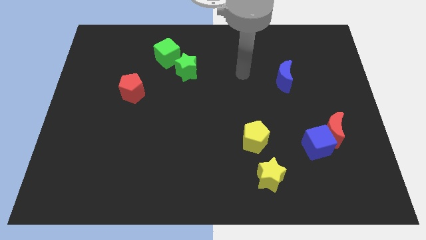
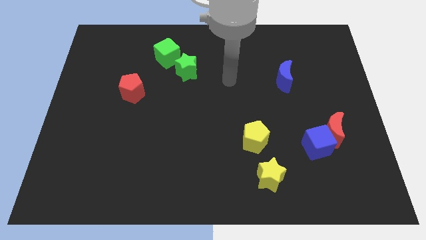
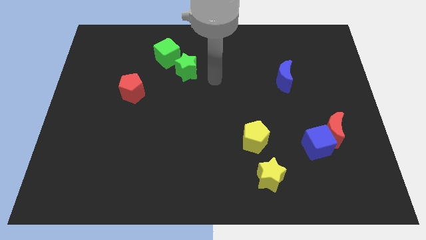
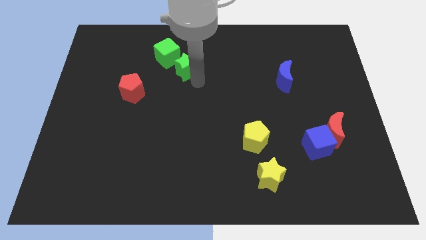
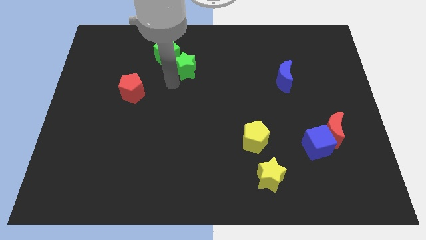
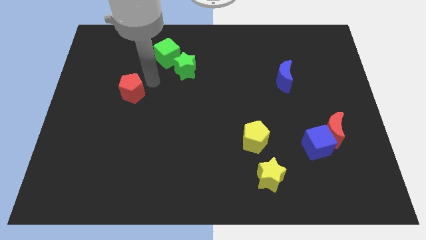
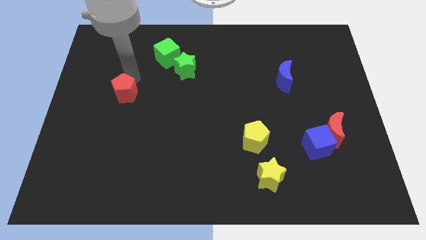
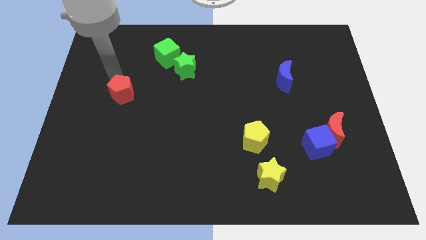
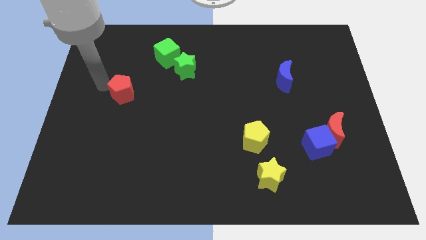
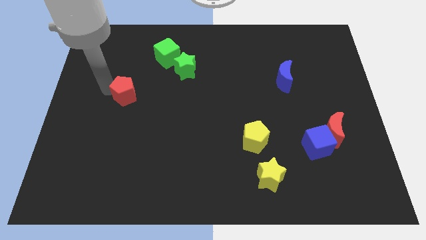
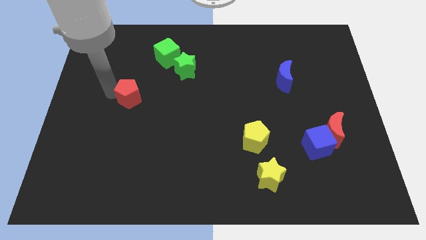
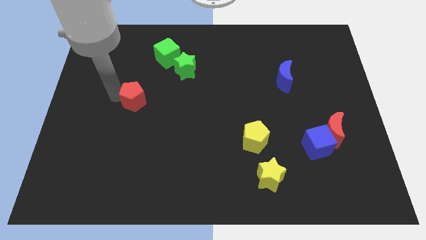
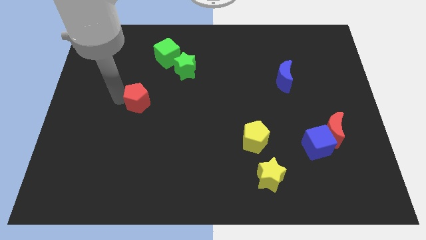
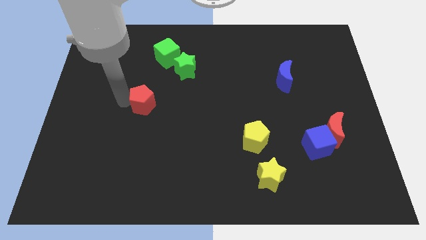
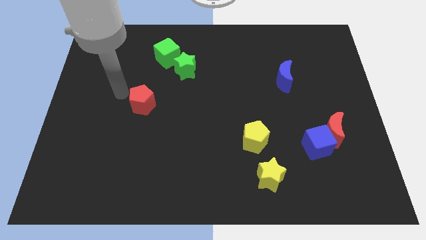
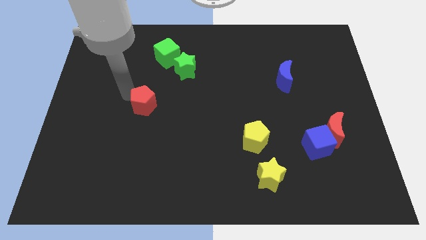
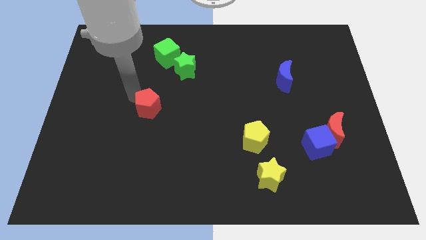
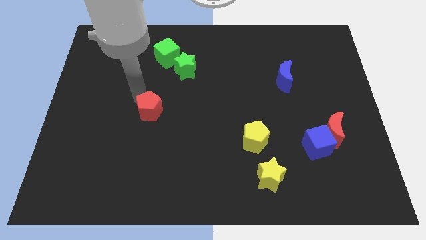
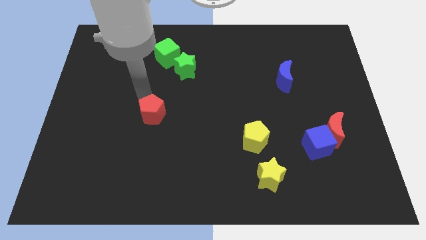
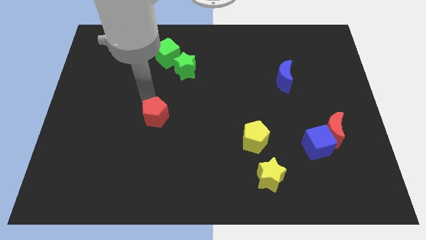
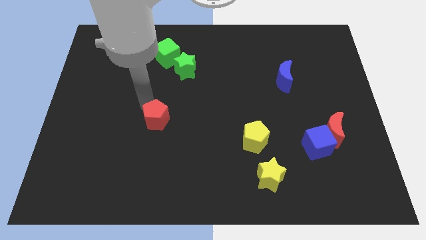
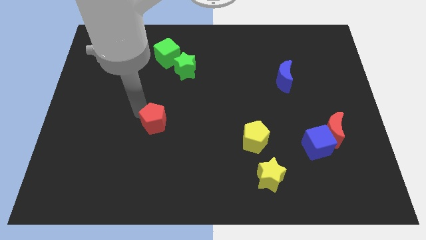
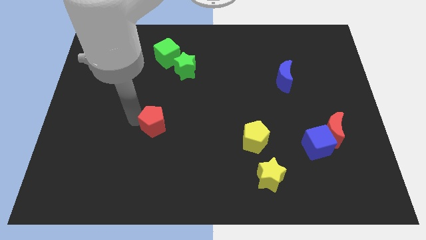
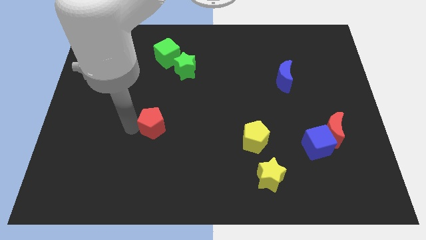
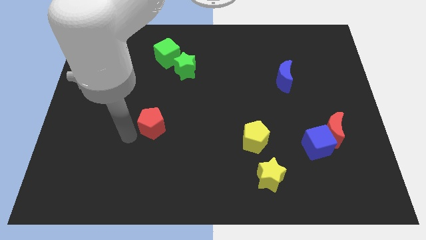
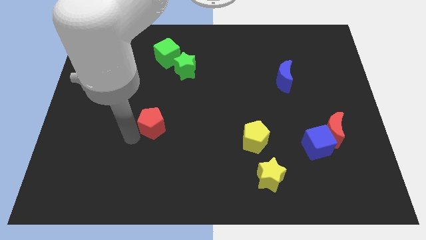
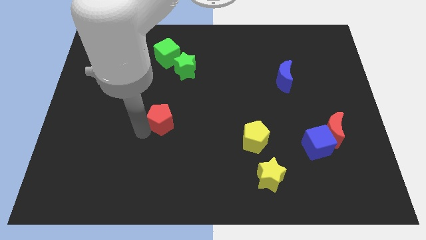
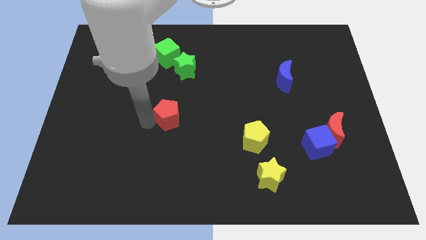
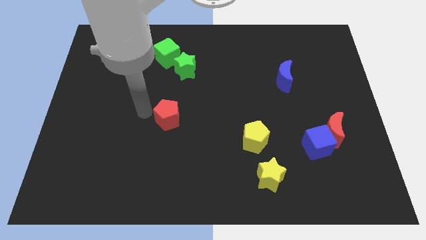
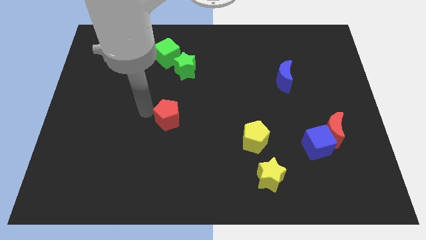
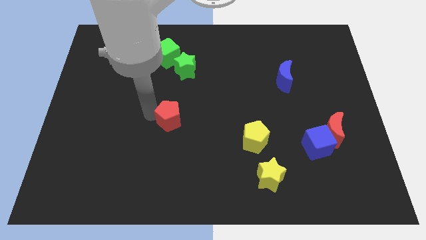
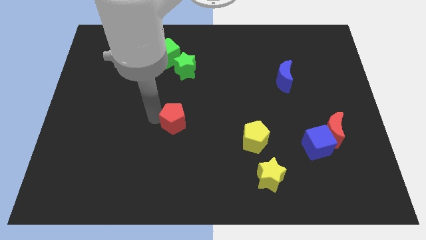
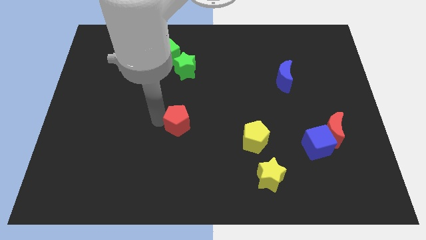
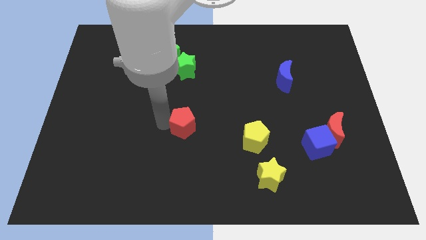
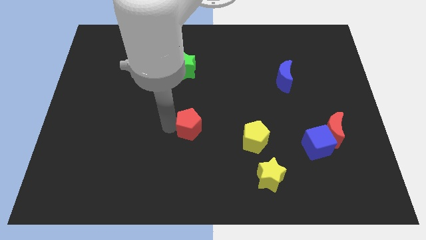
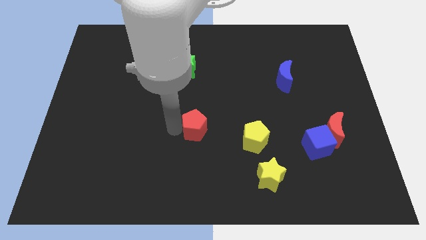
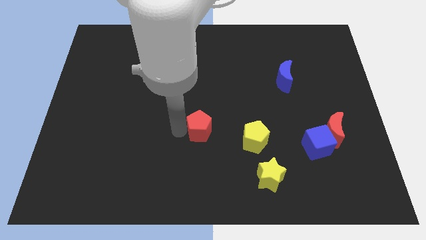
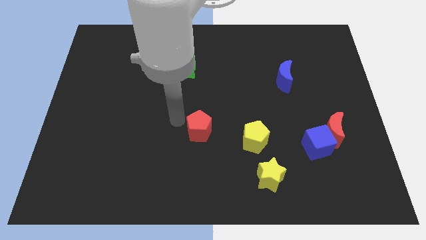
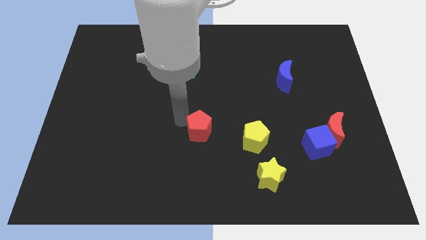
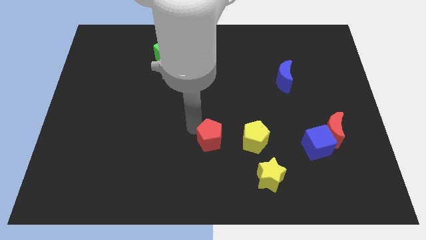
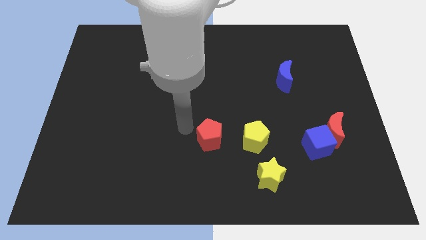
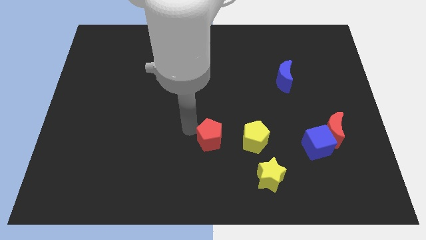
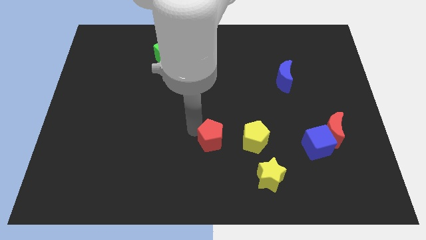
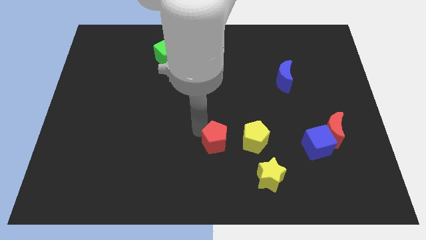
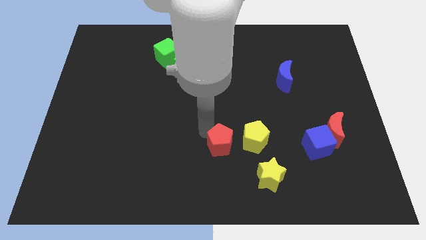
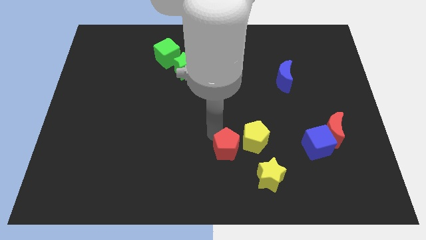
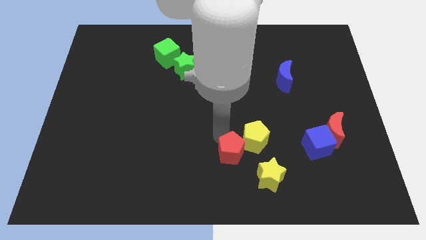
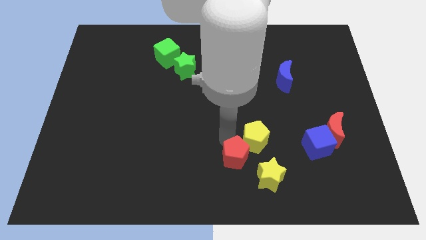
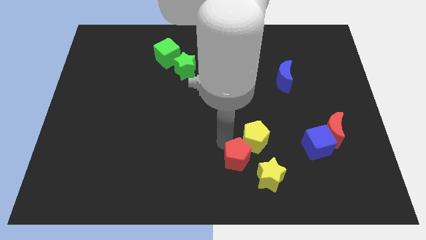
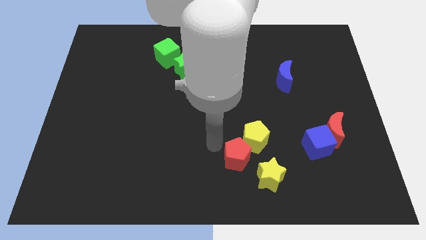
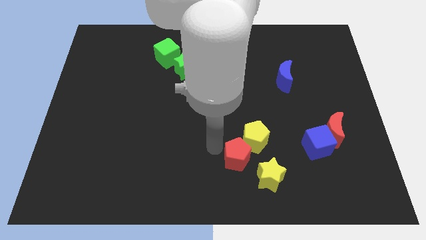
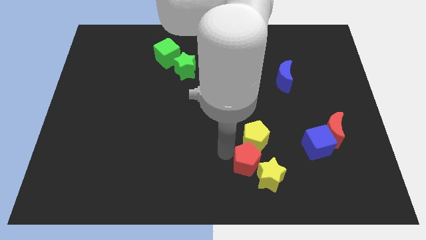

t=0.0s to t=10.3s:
push the red pentagon next to the yellow star

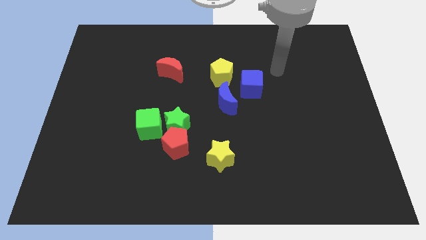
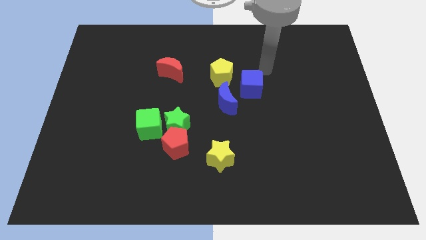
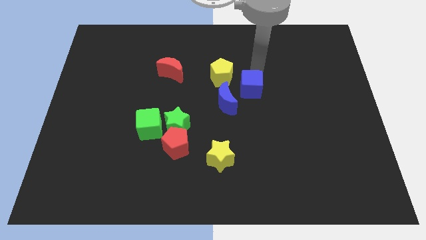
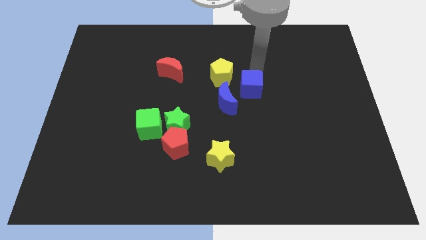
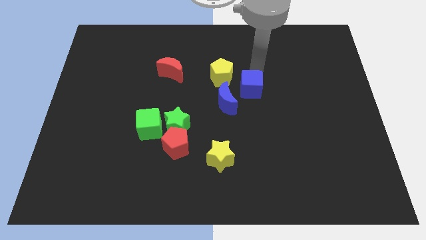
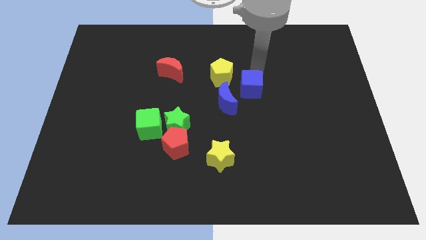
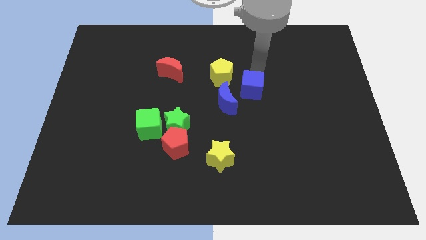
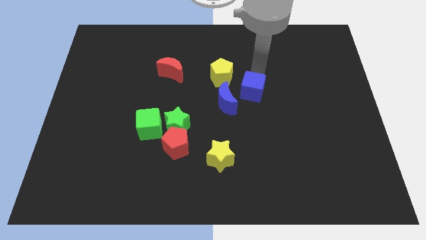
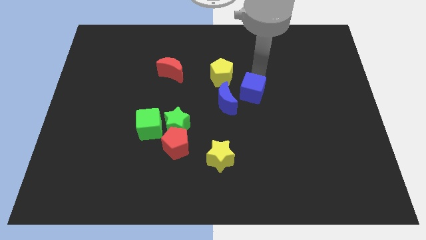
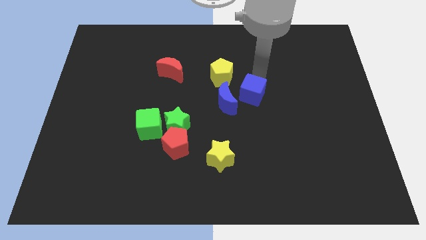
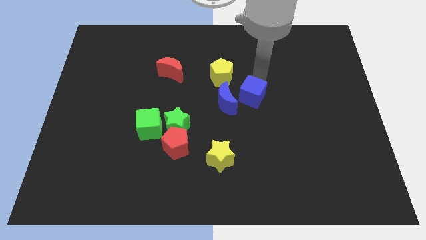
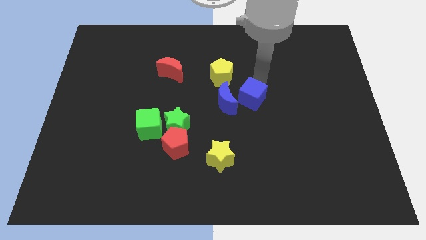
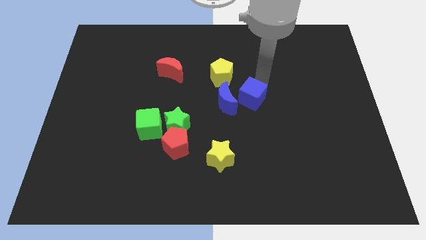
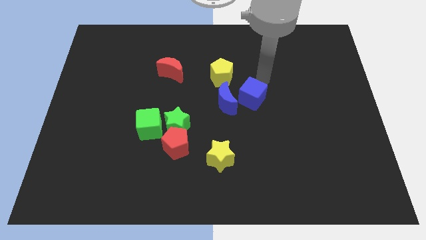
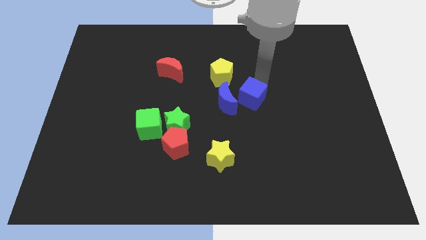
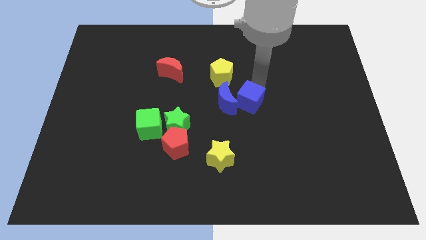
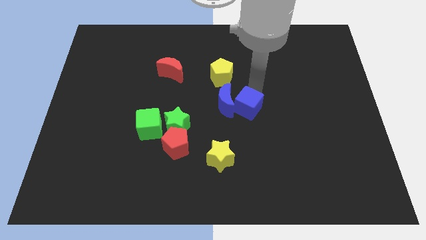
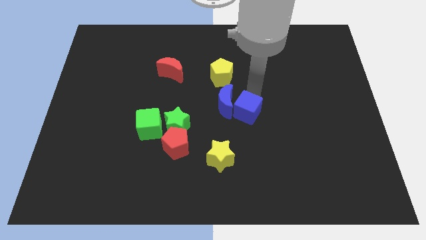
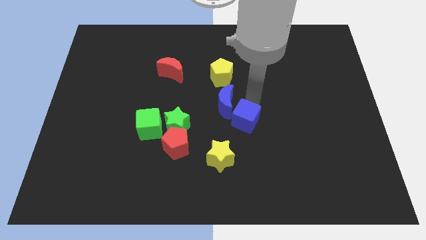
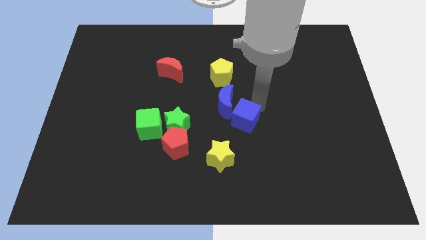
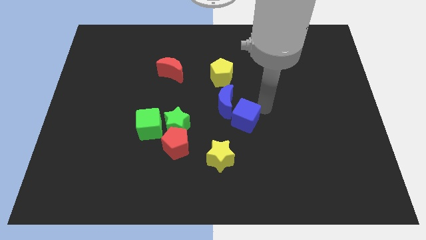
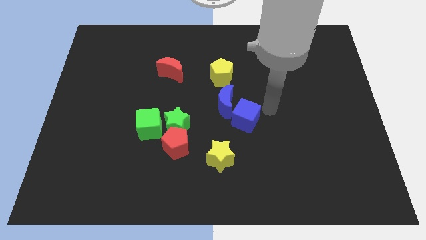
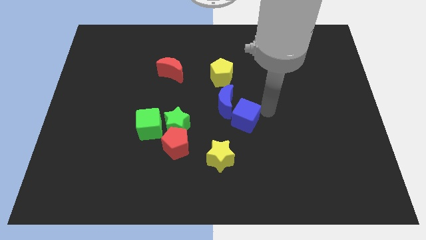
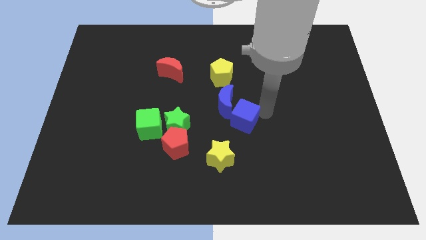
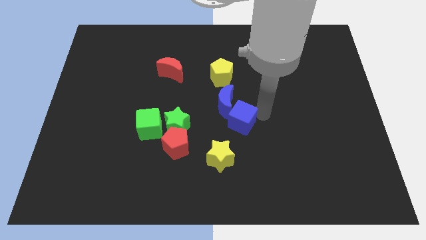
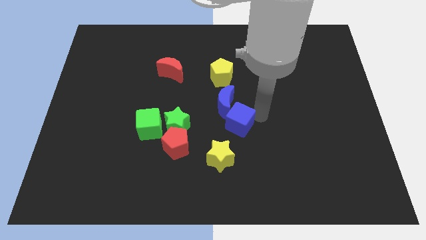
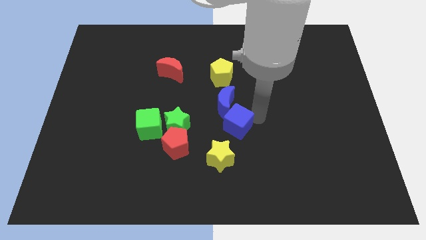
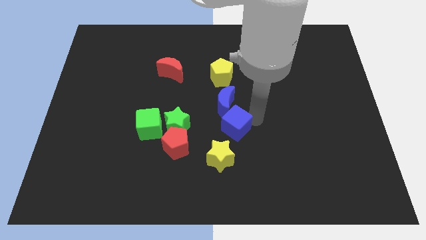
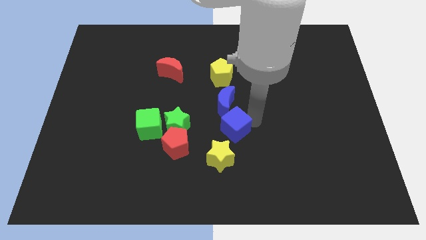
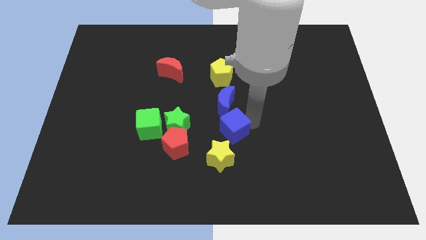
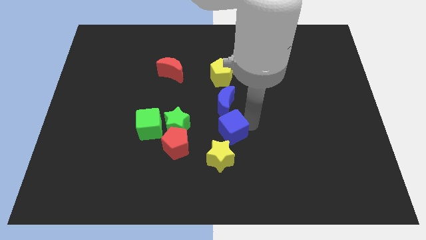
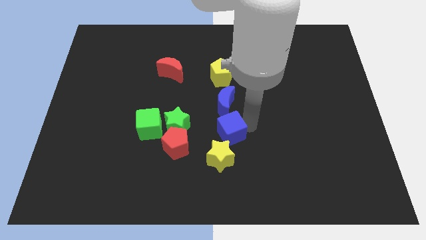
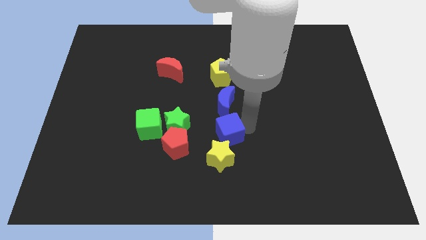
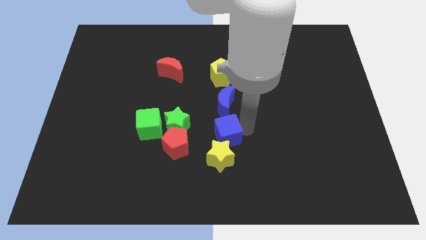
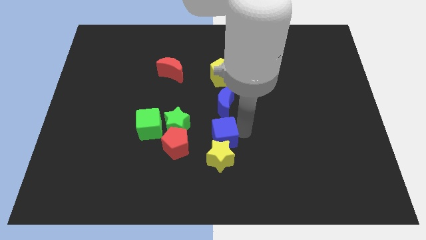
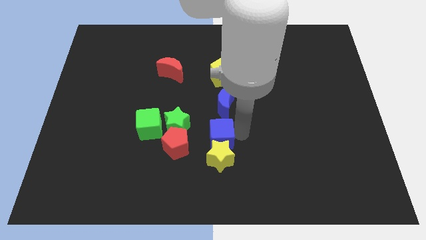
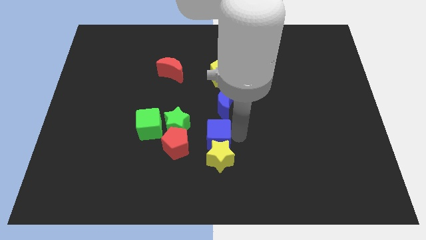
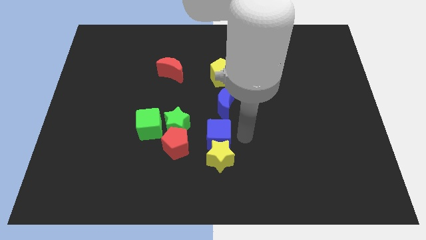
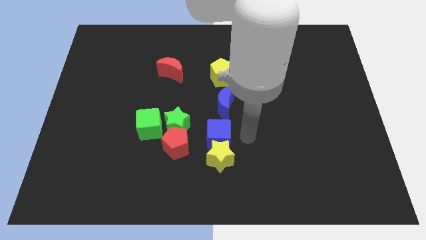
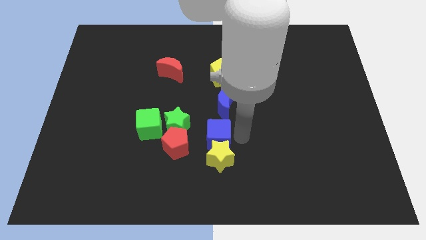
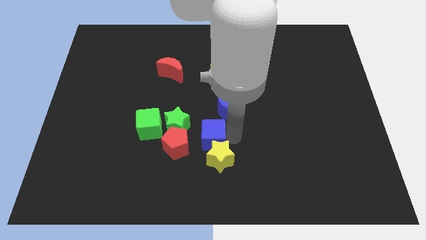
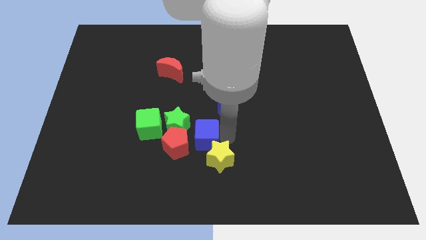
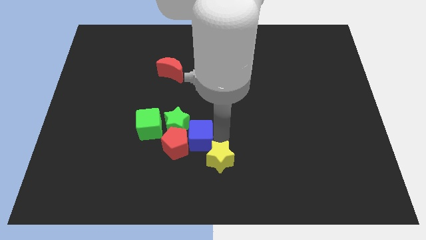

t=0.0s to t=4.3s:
move the blue cube next to the red pentagon
